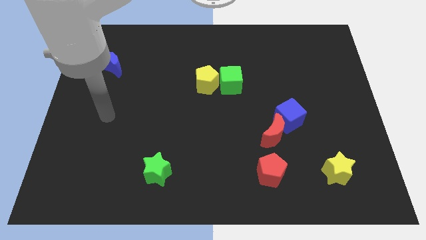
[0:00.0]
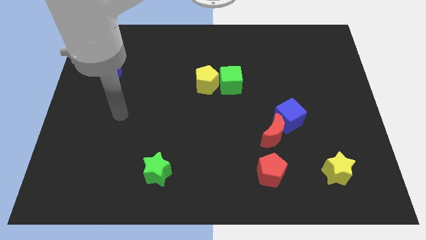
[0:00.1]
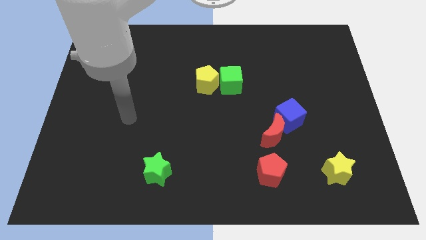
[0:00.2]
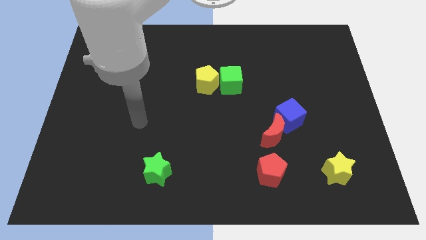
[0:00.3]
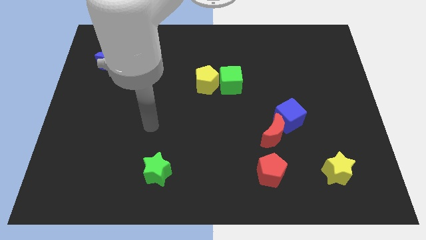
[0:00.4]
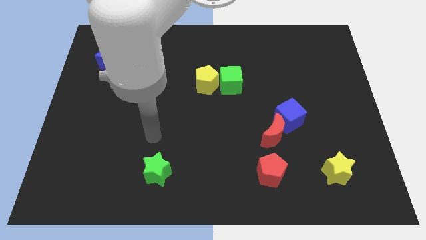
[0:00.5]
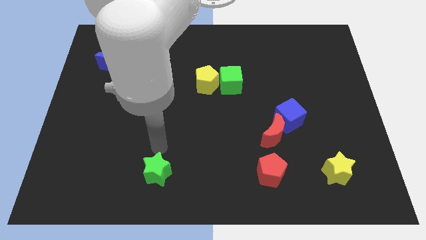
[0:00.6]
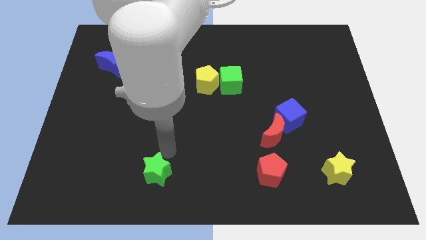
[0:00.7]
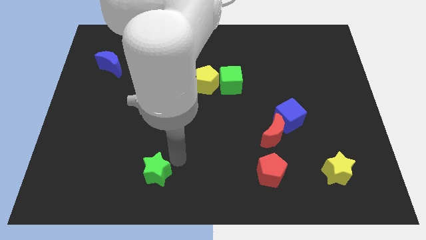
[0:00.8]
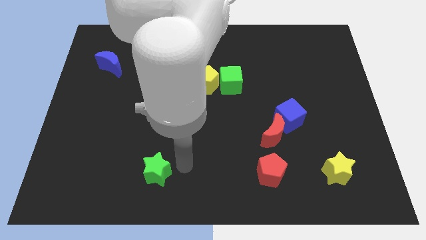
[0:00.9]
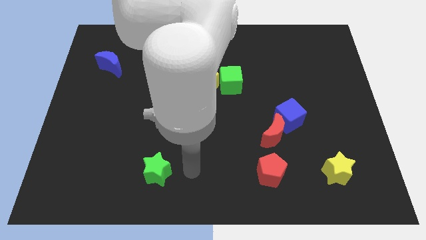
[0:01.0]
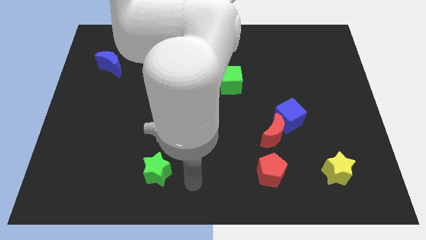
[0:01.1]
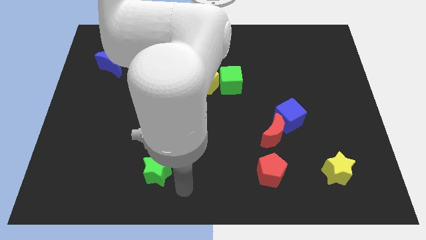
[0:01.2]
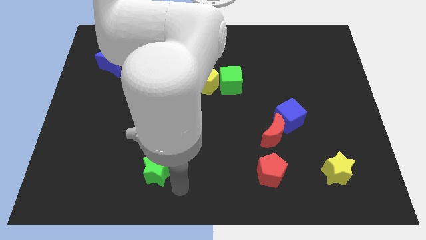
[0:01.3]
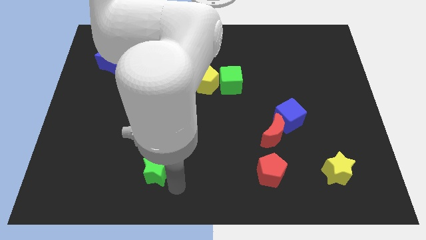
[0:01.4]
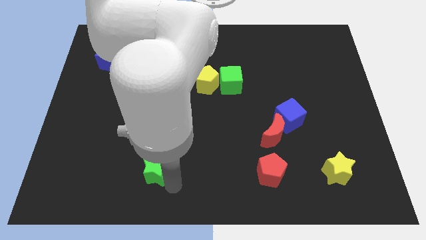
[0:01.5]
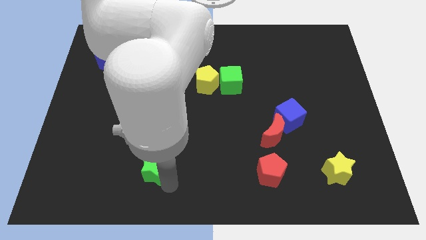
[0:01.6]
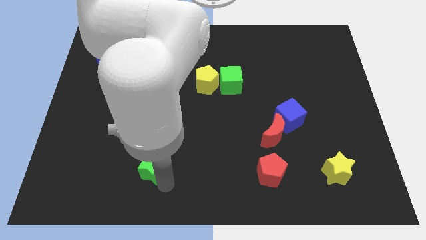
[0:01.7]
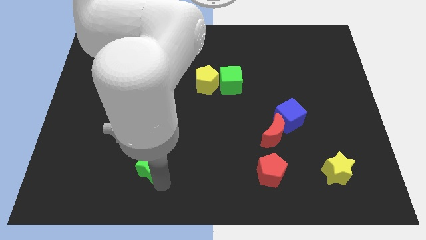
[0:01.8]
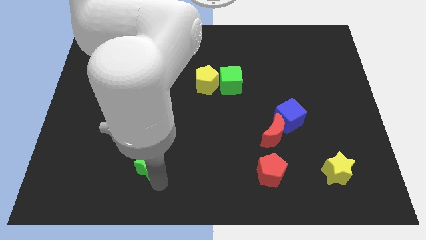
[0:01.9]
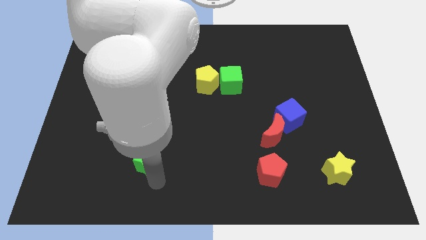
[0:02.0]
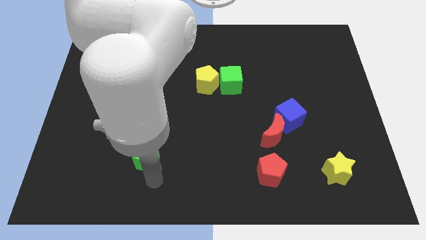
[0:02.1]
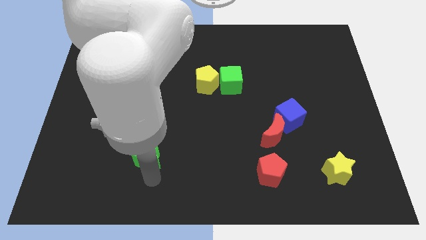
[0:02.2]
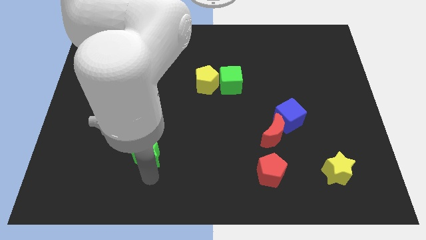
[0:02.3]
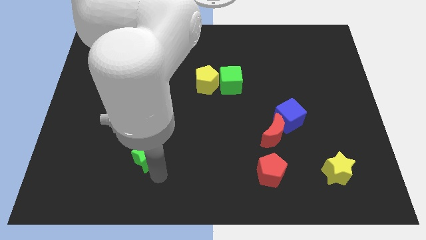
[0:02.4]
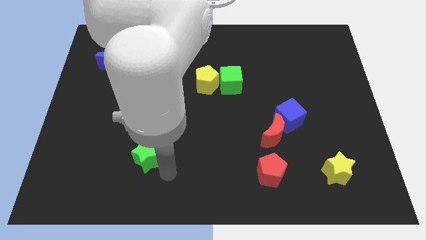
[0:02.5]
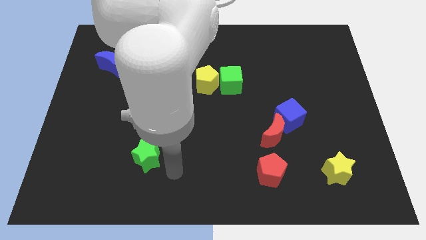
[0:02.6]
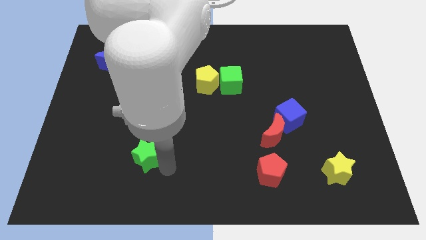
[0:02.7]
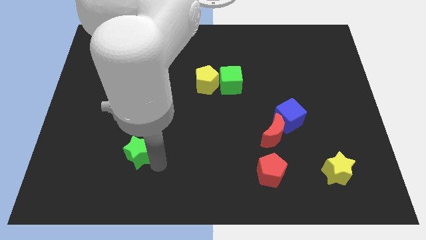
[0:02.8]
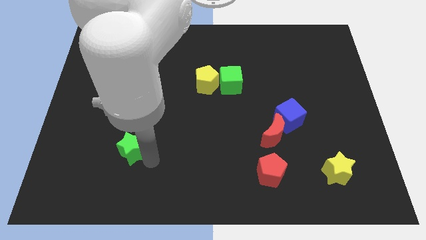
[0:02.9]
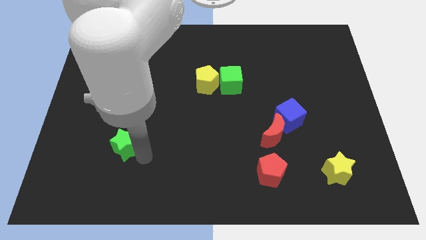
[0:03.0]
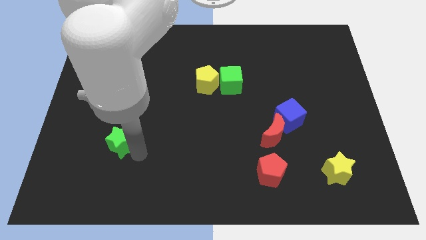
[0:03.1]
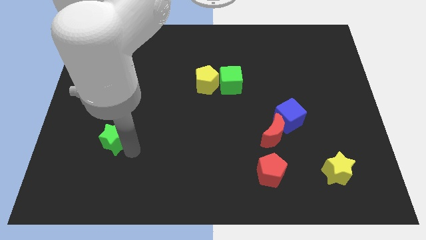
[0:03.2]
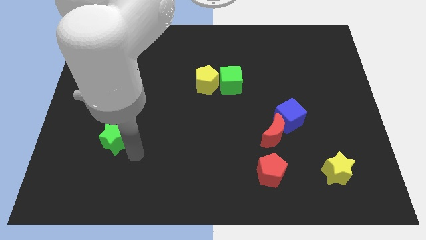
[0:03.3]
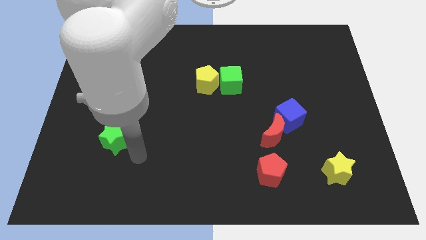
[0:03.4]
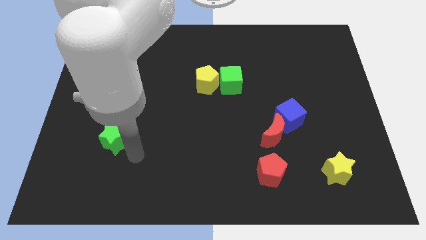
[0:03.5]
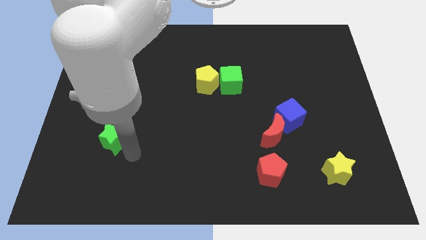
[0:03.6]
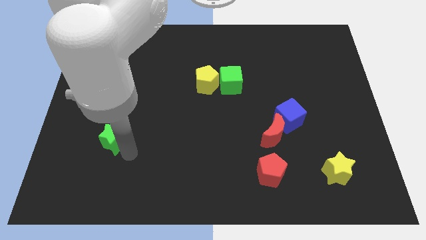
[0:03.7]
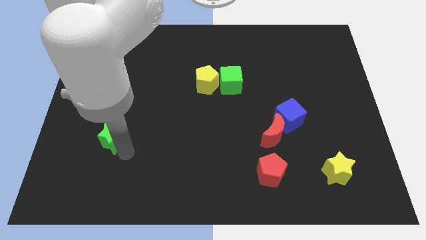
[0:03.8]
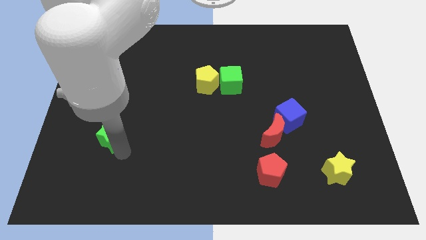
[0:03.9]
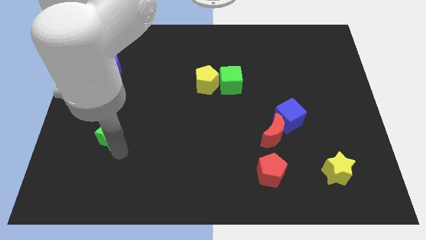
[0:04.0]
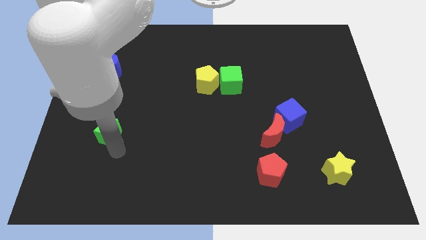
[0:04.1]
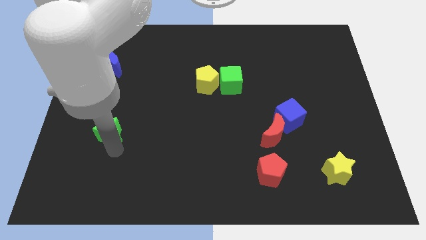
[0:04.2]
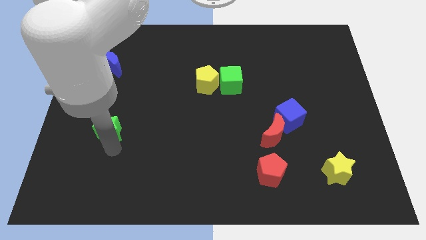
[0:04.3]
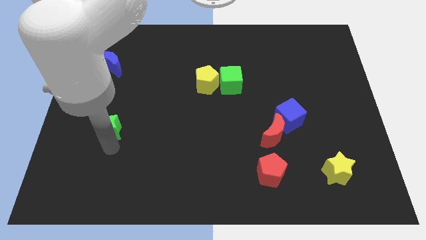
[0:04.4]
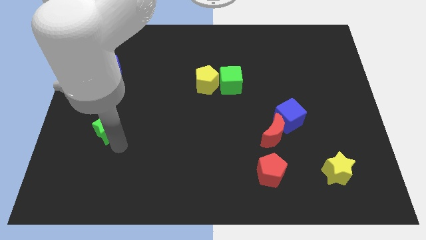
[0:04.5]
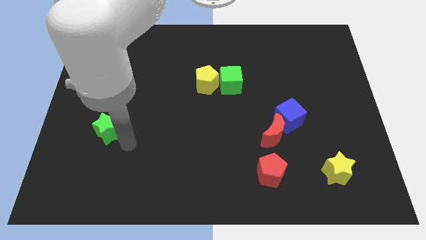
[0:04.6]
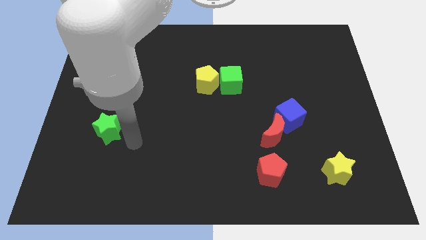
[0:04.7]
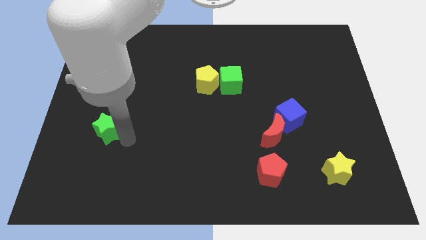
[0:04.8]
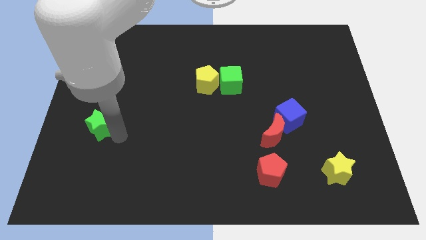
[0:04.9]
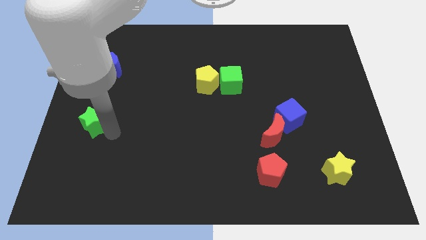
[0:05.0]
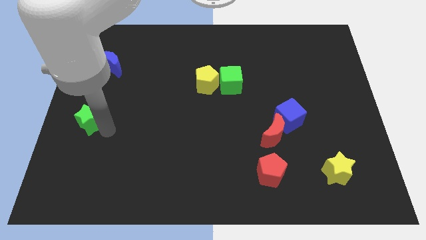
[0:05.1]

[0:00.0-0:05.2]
put the green star to the center left

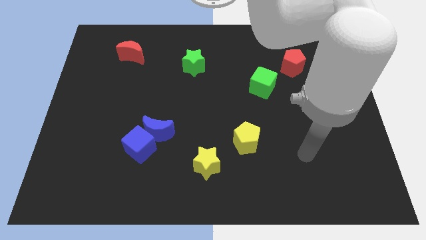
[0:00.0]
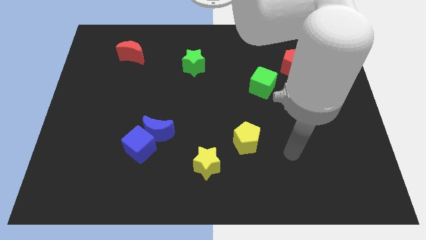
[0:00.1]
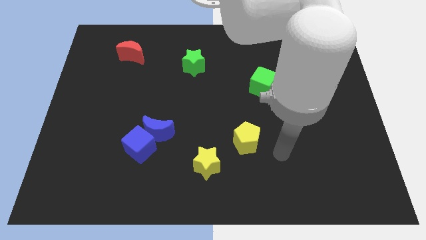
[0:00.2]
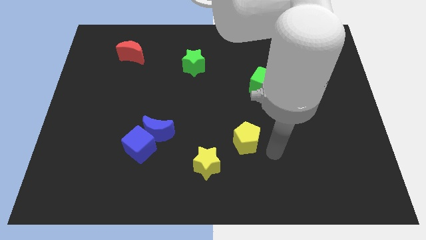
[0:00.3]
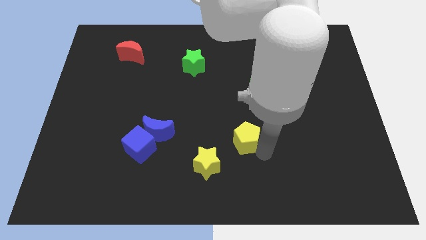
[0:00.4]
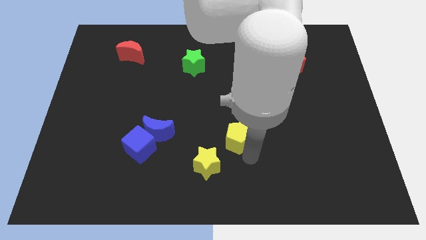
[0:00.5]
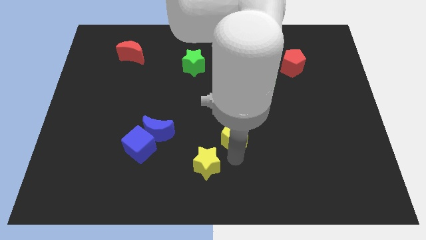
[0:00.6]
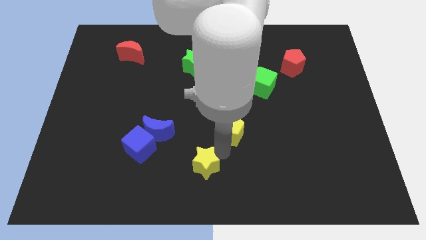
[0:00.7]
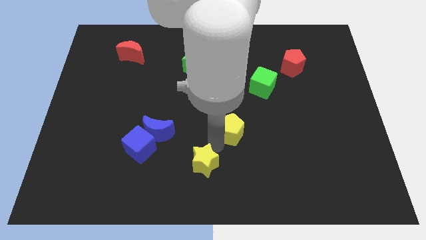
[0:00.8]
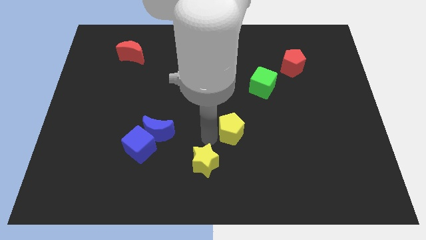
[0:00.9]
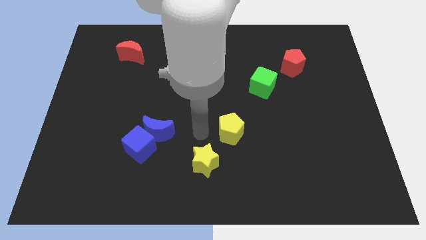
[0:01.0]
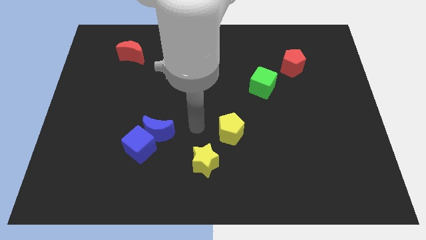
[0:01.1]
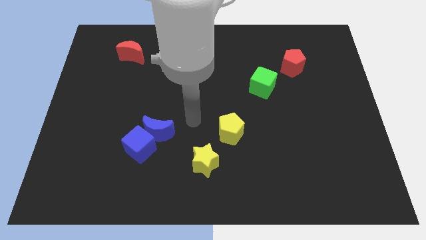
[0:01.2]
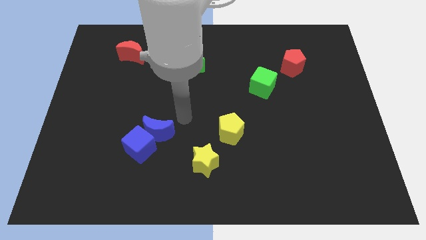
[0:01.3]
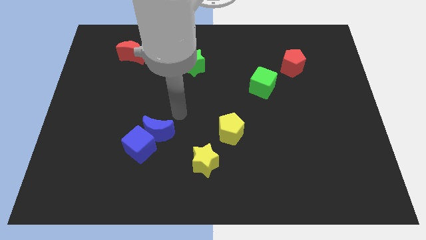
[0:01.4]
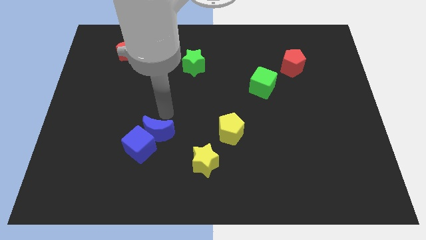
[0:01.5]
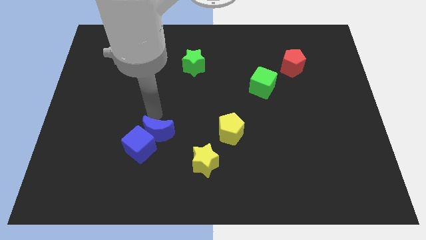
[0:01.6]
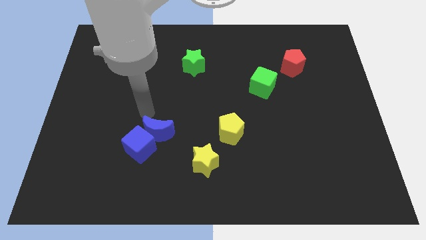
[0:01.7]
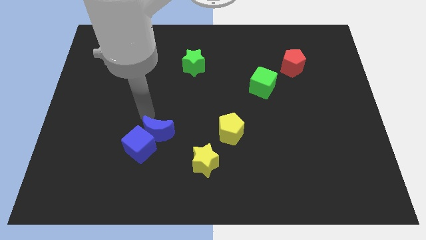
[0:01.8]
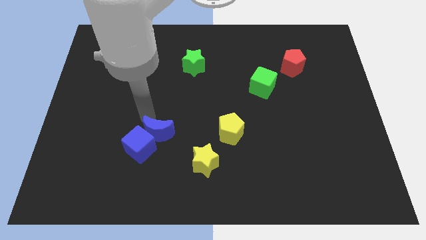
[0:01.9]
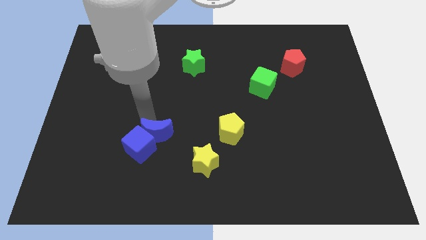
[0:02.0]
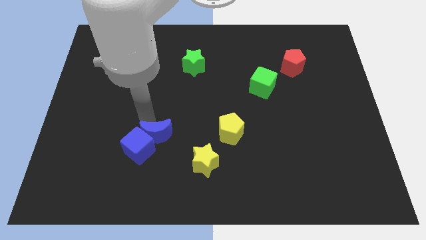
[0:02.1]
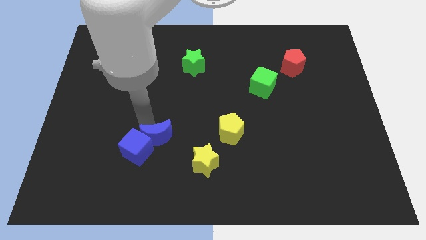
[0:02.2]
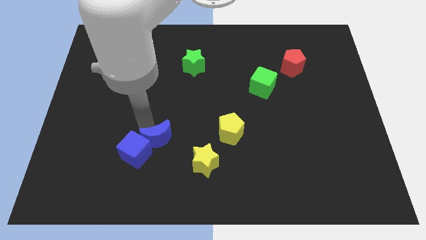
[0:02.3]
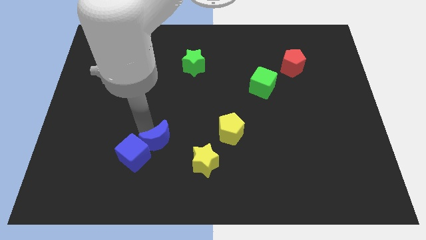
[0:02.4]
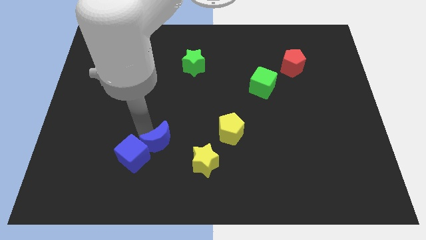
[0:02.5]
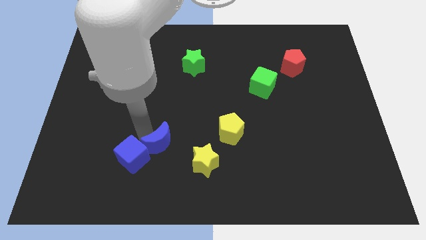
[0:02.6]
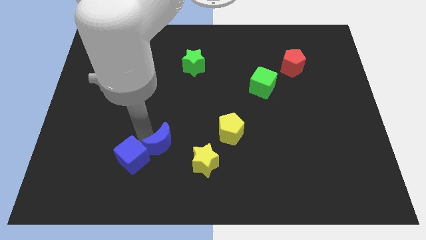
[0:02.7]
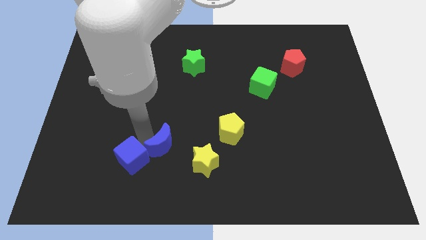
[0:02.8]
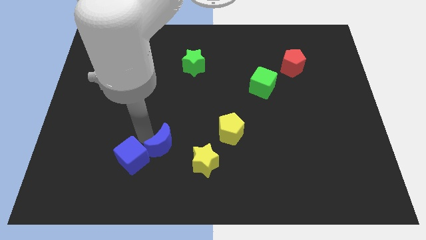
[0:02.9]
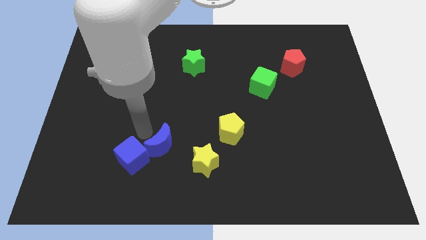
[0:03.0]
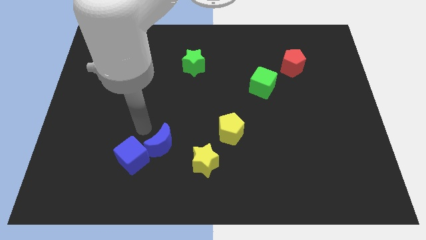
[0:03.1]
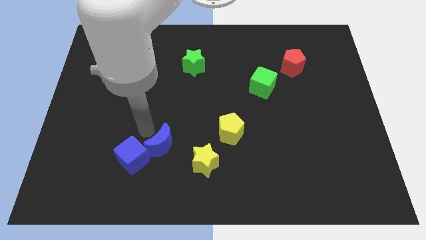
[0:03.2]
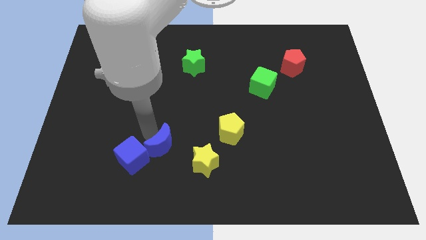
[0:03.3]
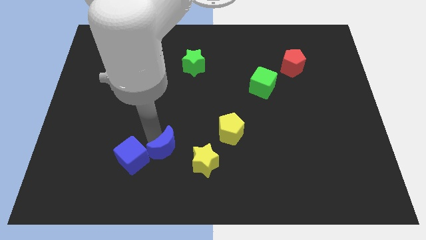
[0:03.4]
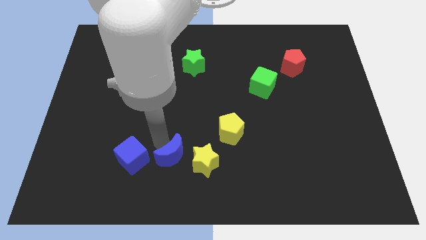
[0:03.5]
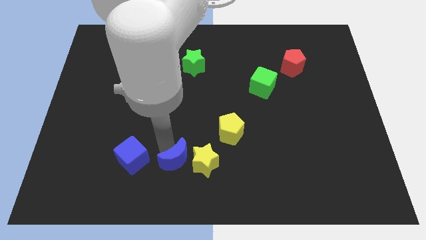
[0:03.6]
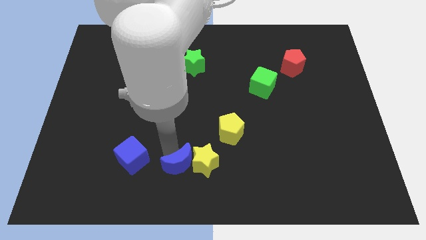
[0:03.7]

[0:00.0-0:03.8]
move the blue moon to the bottom
